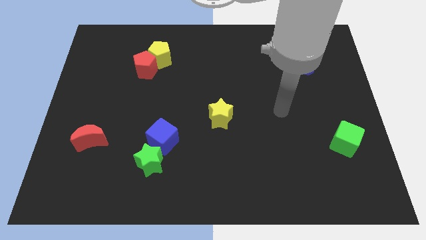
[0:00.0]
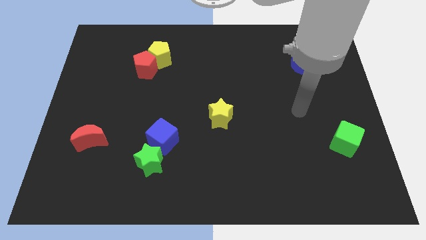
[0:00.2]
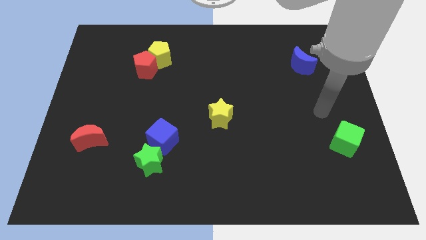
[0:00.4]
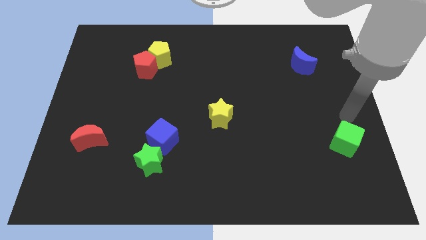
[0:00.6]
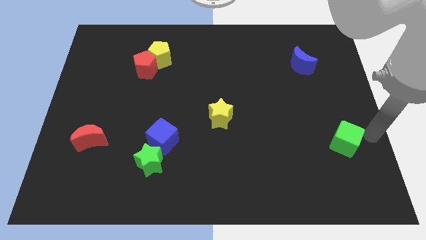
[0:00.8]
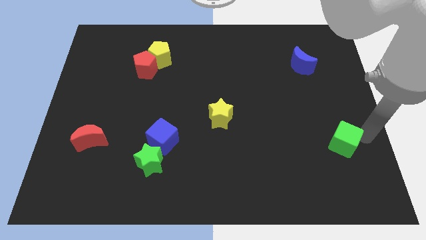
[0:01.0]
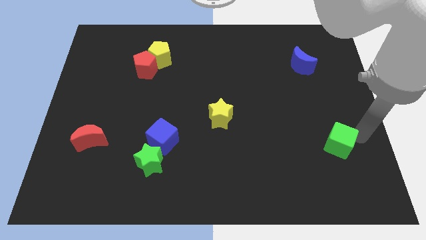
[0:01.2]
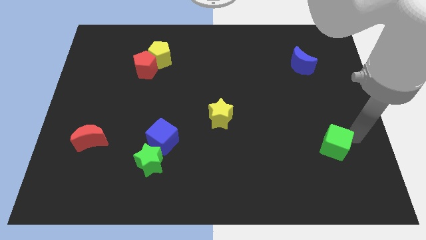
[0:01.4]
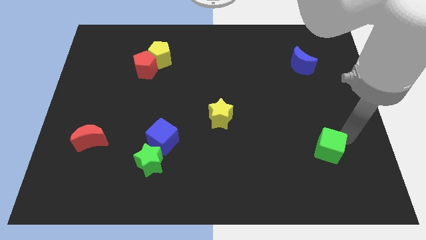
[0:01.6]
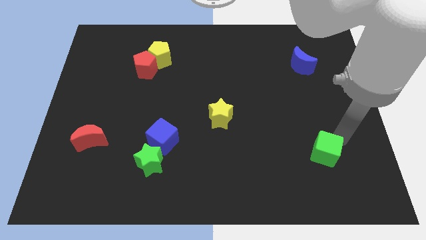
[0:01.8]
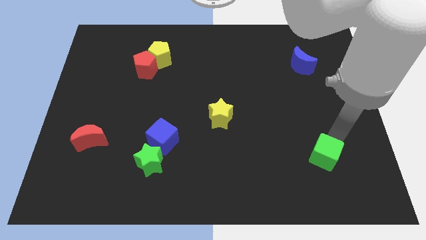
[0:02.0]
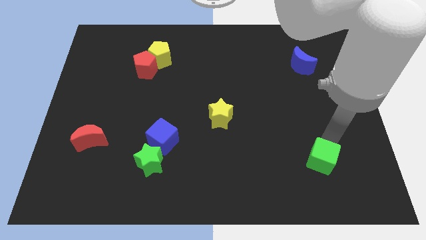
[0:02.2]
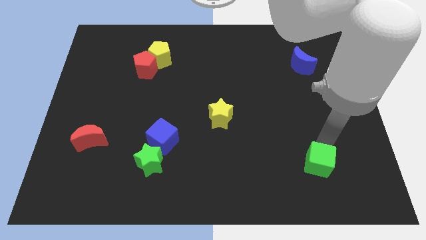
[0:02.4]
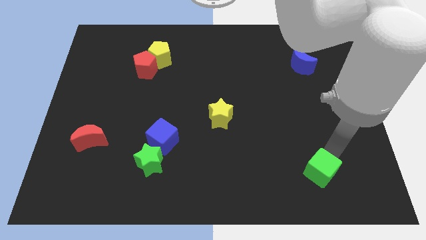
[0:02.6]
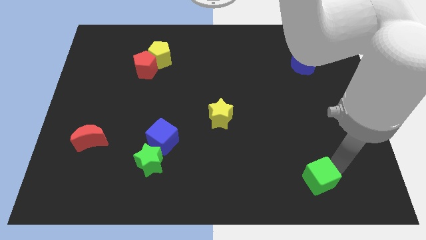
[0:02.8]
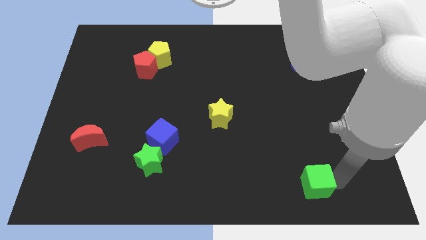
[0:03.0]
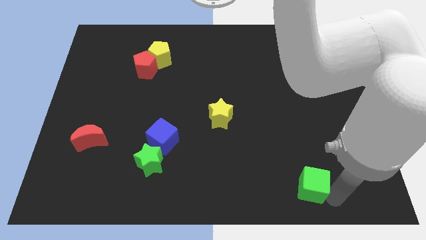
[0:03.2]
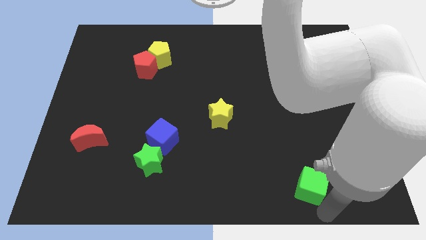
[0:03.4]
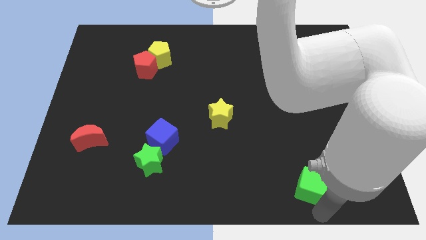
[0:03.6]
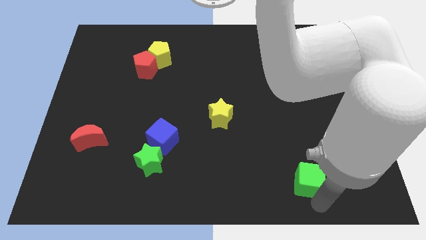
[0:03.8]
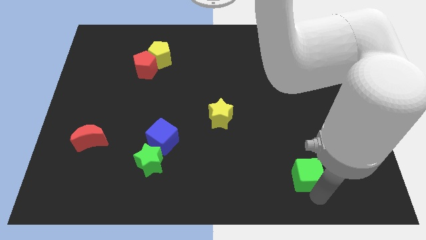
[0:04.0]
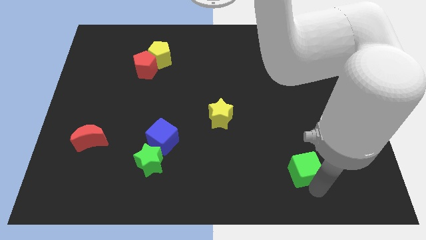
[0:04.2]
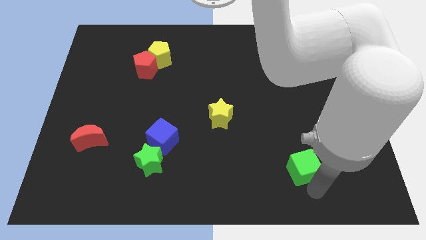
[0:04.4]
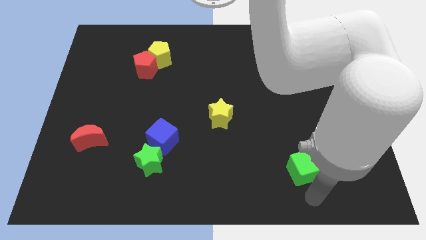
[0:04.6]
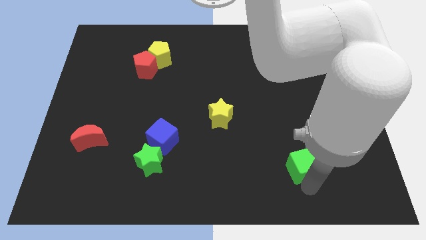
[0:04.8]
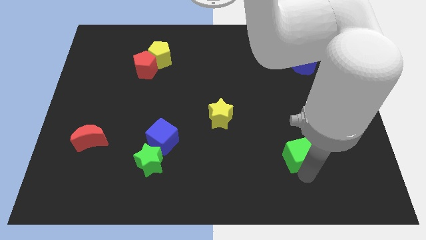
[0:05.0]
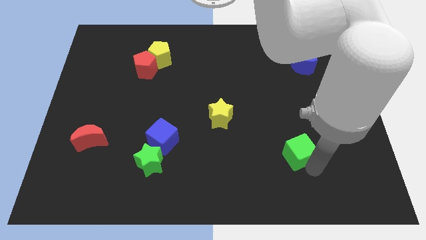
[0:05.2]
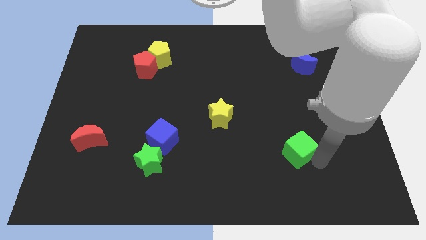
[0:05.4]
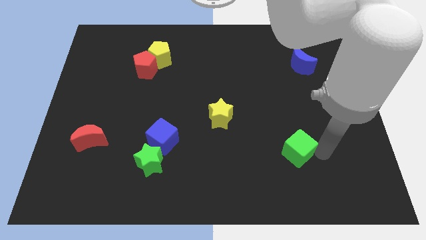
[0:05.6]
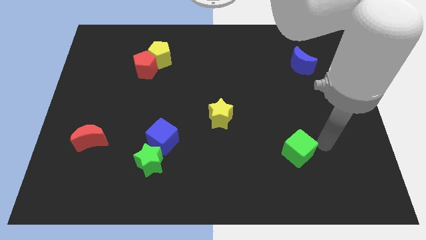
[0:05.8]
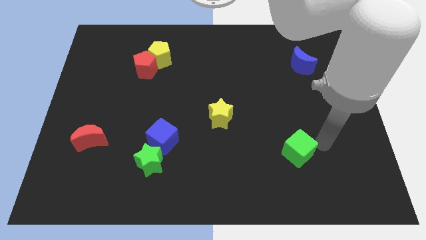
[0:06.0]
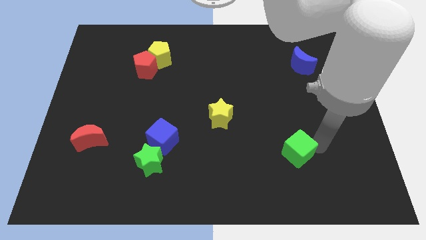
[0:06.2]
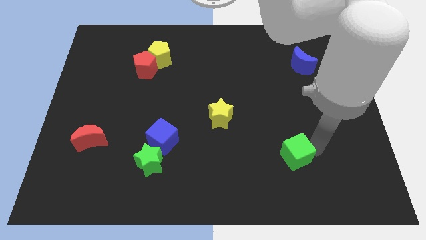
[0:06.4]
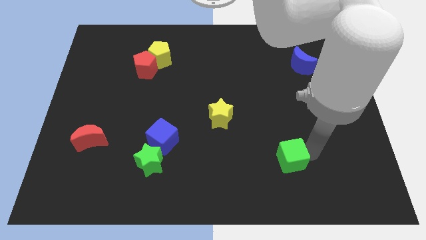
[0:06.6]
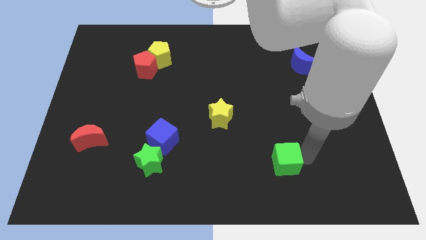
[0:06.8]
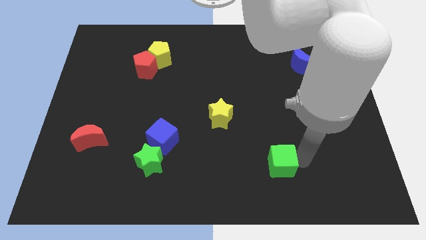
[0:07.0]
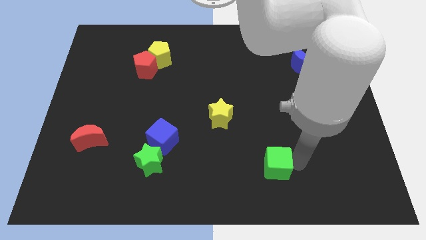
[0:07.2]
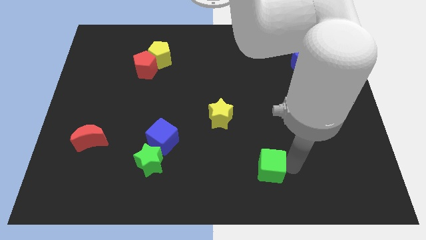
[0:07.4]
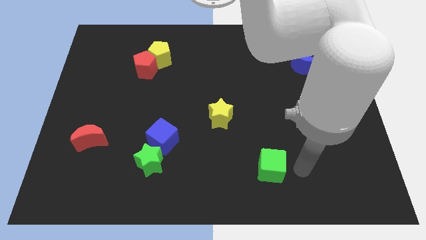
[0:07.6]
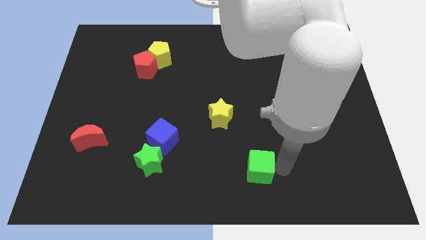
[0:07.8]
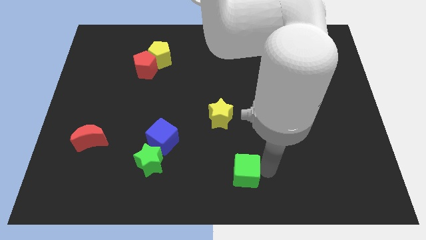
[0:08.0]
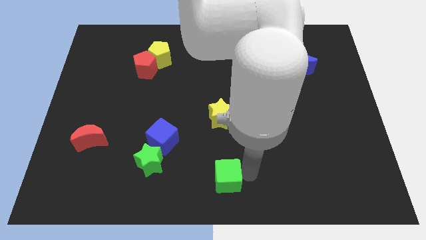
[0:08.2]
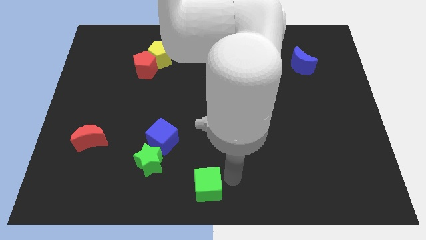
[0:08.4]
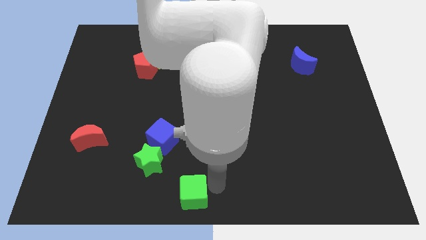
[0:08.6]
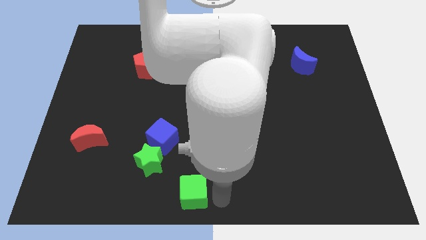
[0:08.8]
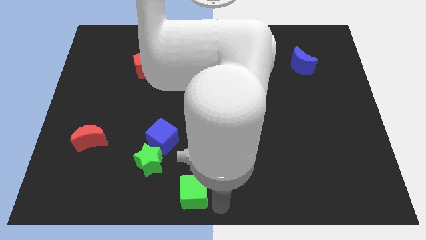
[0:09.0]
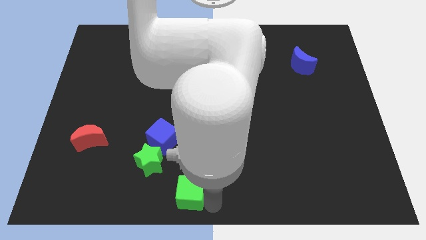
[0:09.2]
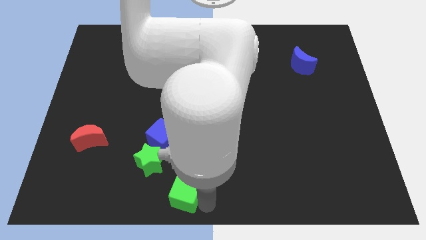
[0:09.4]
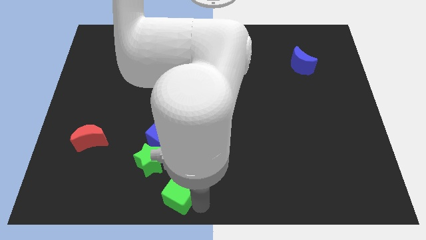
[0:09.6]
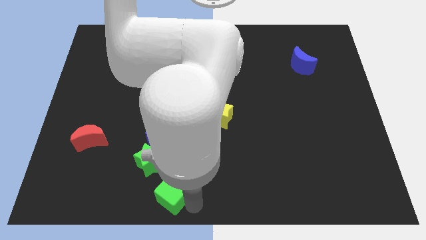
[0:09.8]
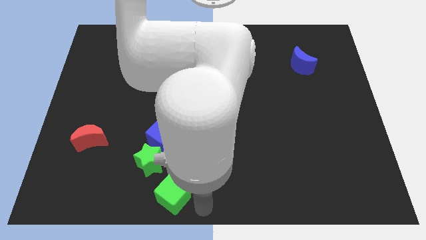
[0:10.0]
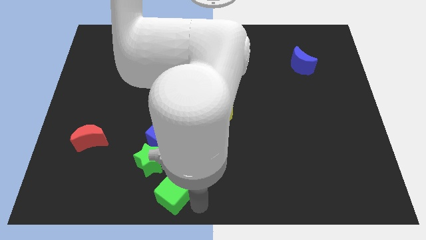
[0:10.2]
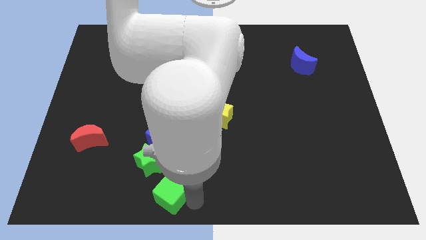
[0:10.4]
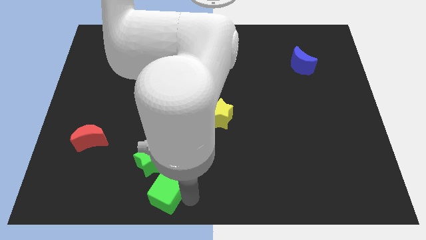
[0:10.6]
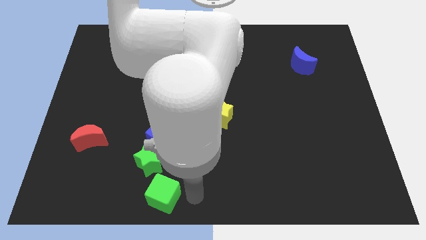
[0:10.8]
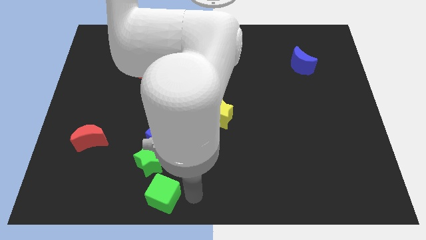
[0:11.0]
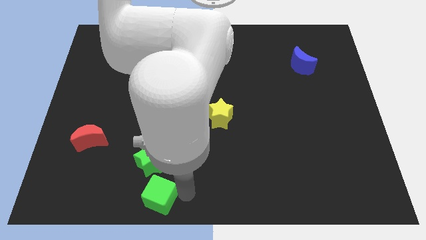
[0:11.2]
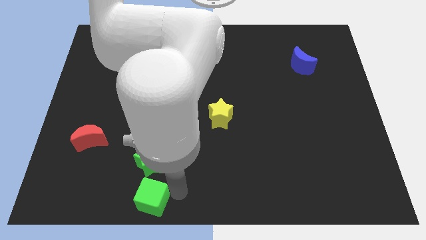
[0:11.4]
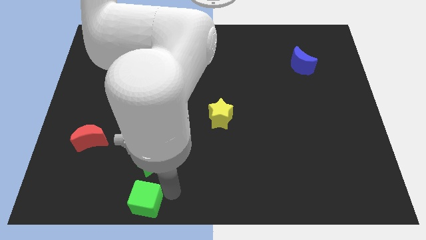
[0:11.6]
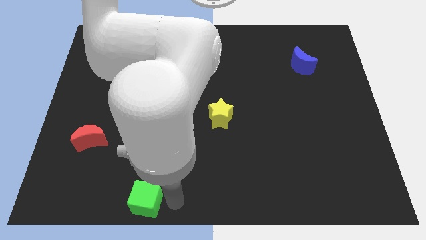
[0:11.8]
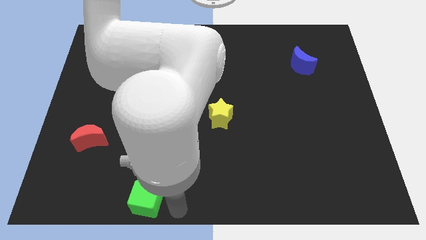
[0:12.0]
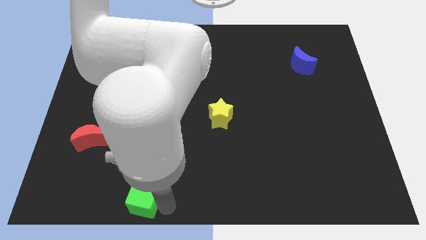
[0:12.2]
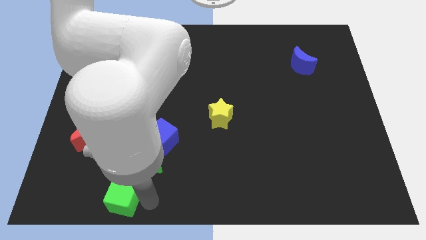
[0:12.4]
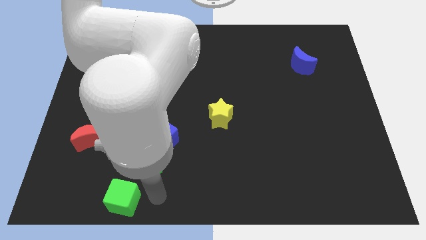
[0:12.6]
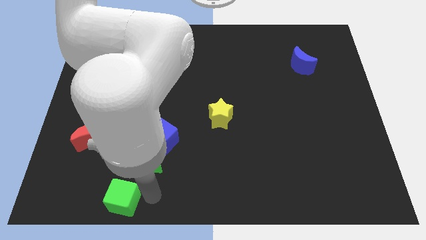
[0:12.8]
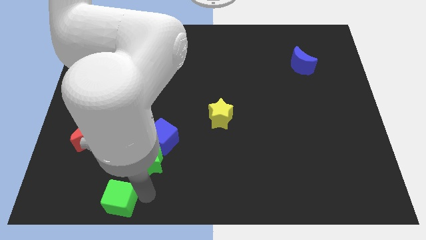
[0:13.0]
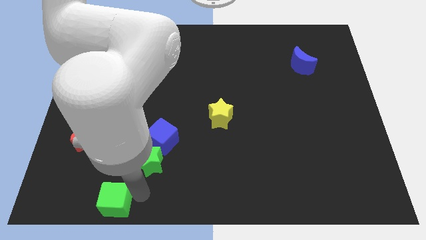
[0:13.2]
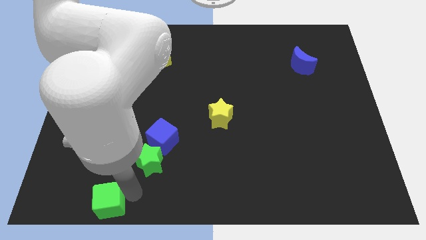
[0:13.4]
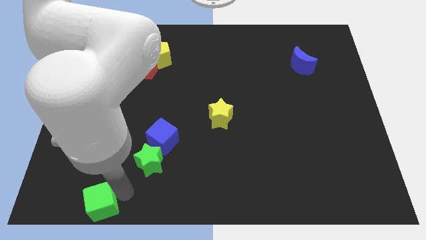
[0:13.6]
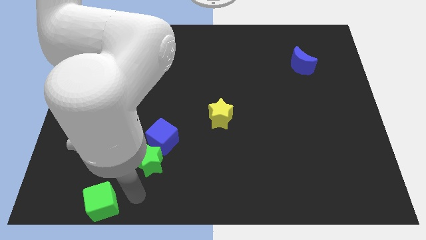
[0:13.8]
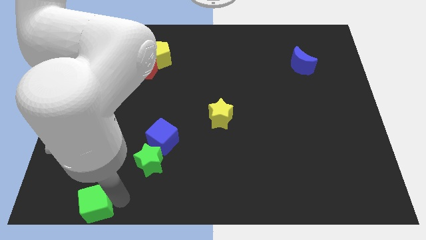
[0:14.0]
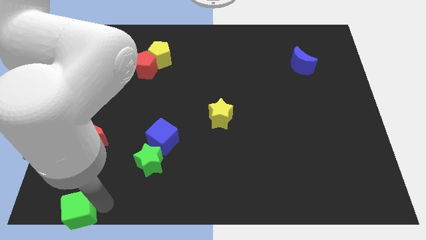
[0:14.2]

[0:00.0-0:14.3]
put the green cube to the bottom left corner
